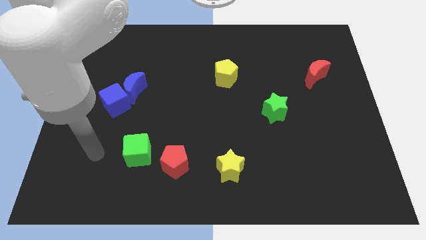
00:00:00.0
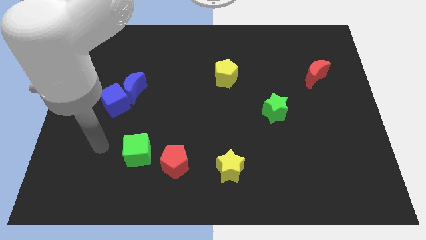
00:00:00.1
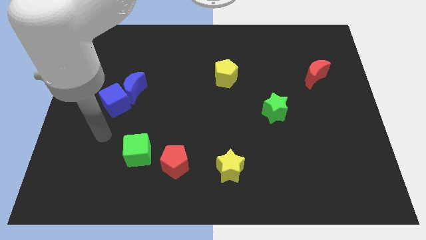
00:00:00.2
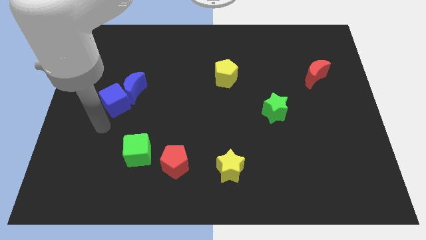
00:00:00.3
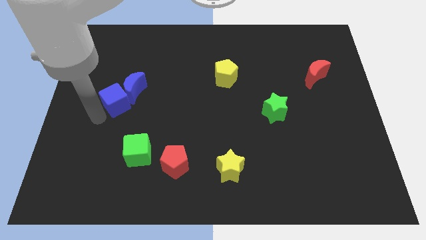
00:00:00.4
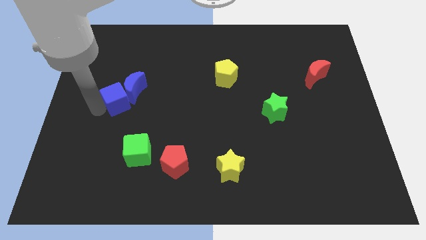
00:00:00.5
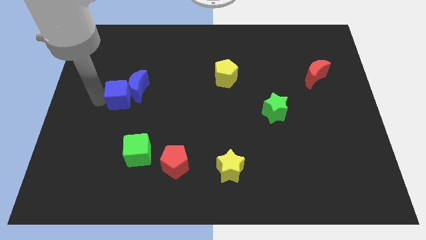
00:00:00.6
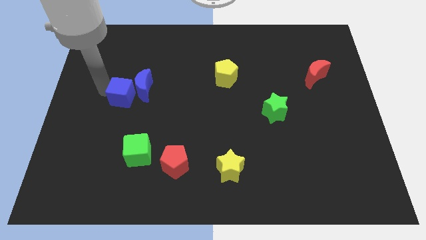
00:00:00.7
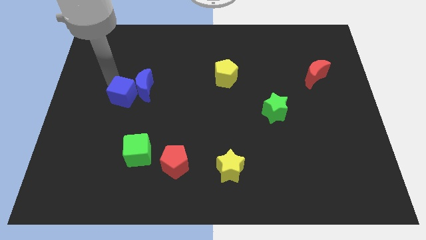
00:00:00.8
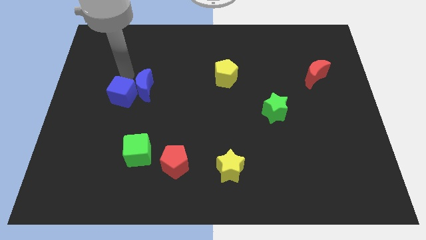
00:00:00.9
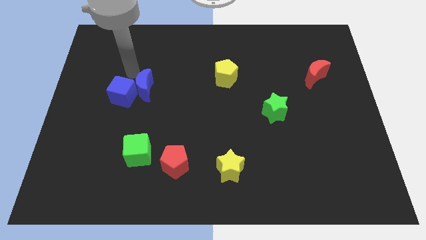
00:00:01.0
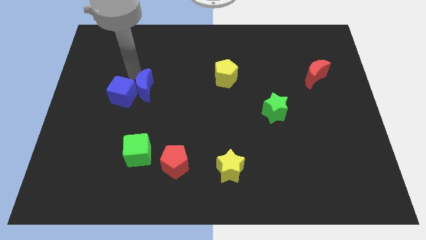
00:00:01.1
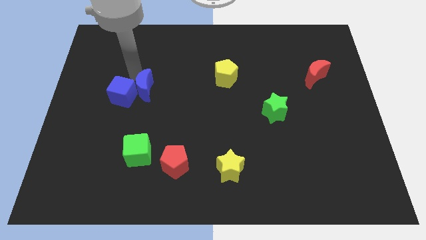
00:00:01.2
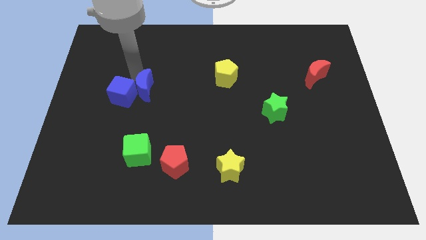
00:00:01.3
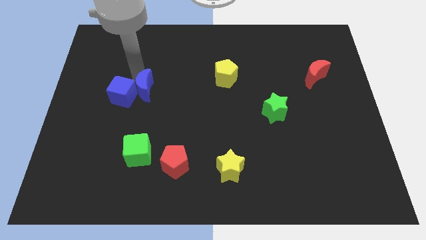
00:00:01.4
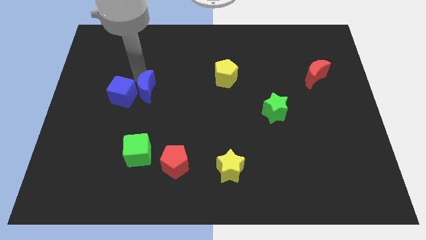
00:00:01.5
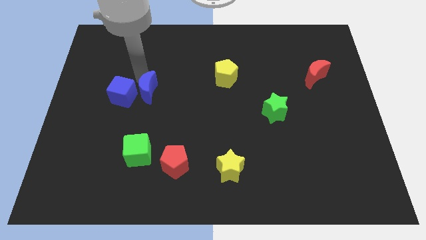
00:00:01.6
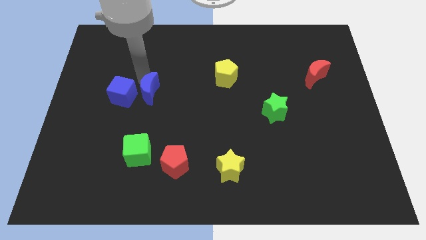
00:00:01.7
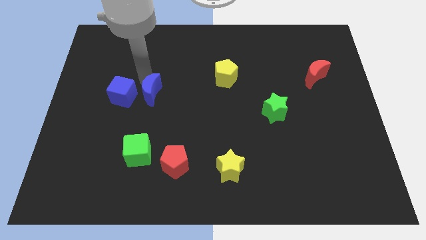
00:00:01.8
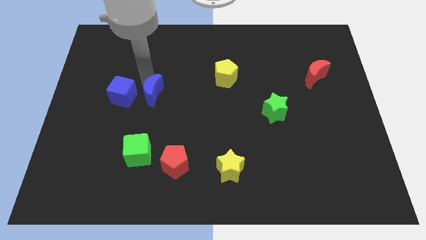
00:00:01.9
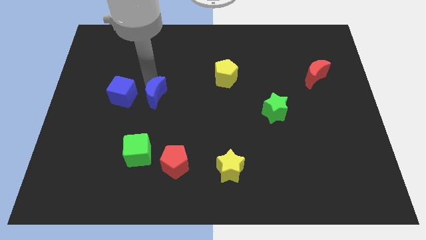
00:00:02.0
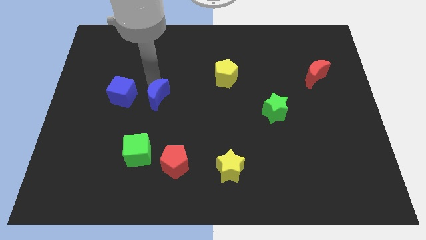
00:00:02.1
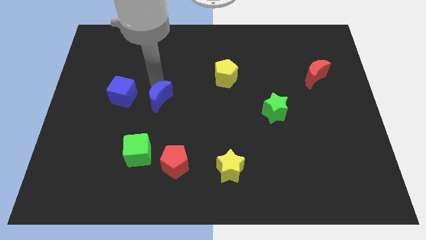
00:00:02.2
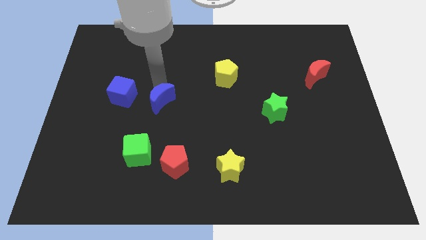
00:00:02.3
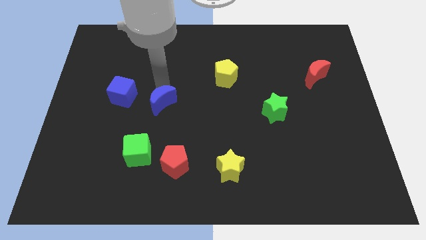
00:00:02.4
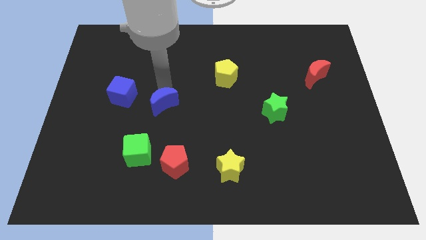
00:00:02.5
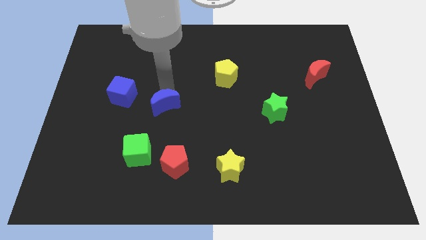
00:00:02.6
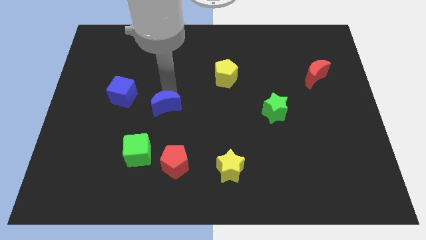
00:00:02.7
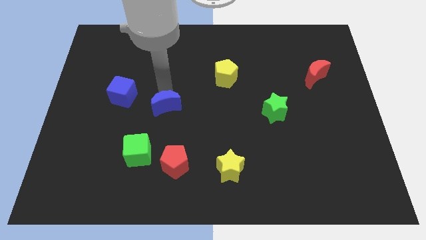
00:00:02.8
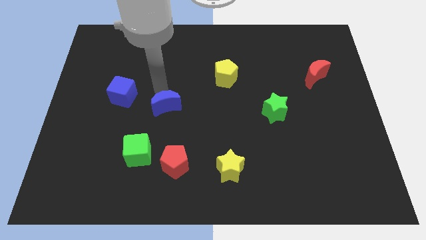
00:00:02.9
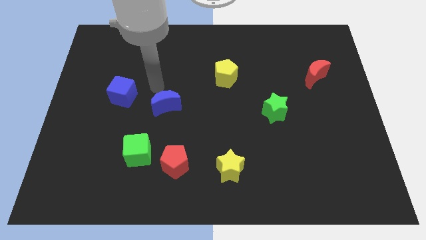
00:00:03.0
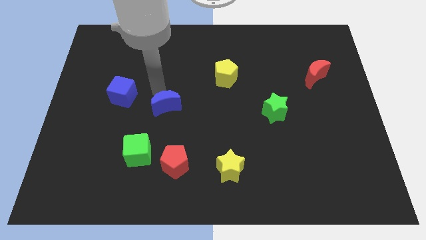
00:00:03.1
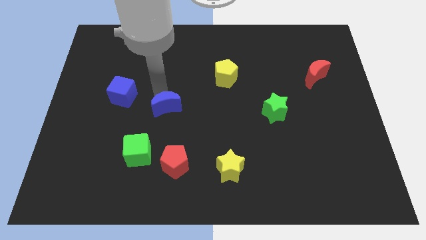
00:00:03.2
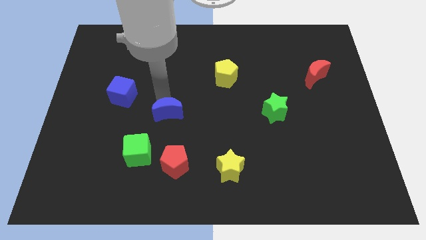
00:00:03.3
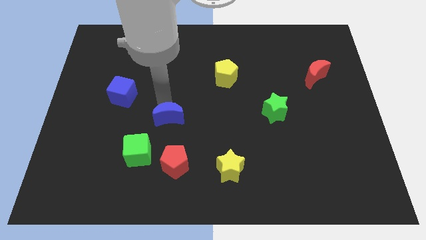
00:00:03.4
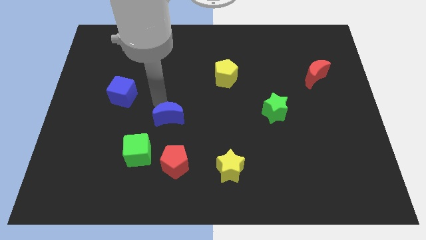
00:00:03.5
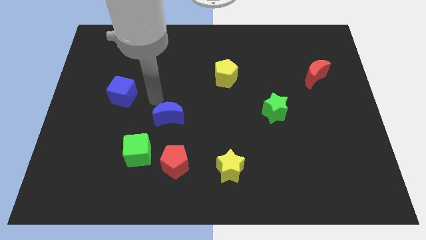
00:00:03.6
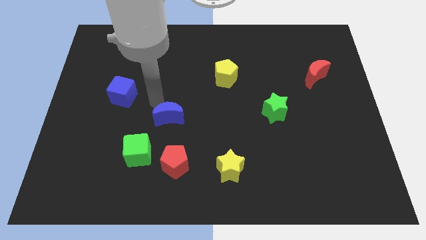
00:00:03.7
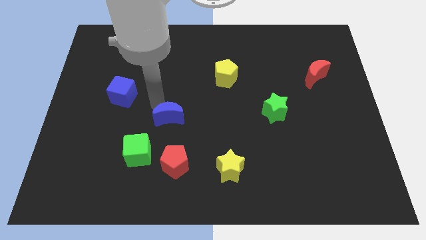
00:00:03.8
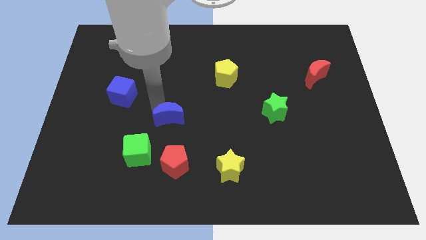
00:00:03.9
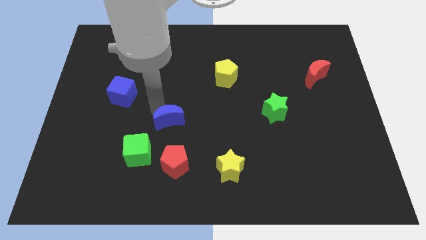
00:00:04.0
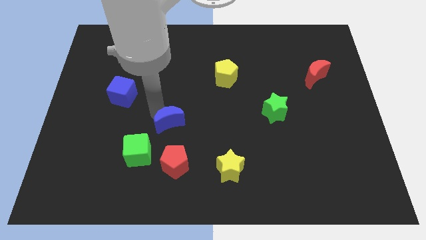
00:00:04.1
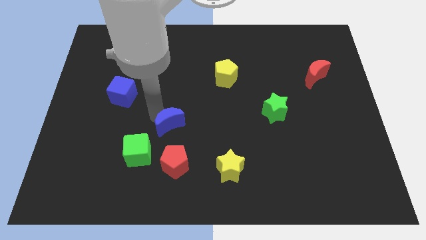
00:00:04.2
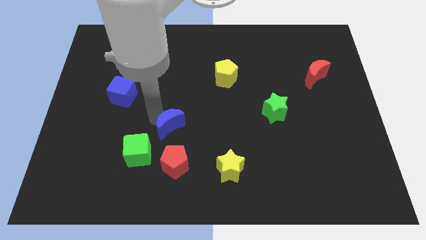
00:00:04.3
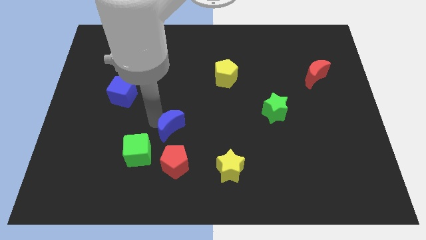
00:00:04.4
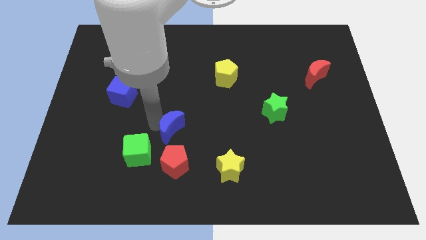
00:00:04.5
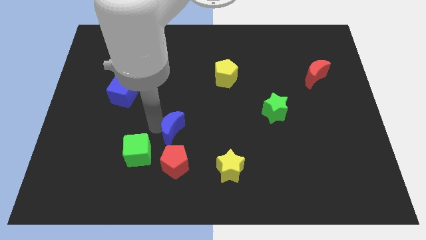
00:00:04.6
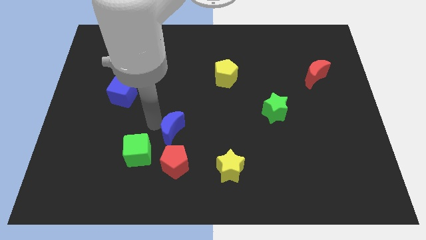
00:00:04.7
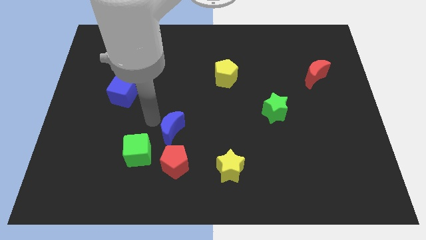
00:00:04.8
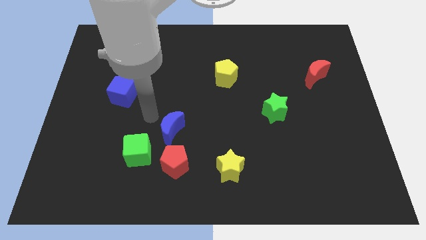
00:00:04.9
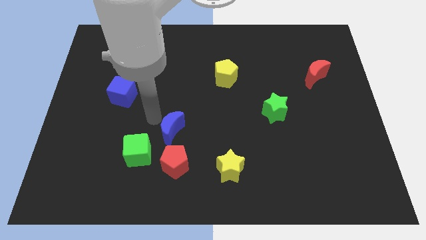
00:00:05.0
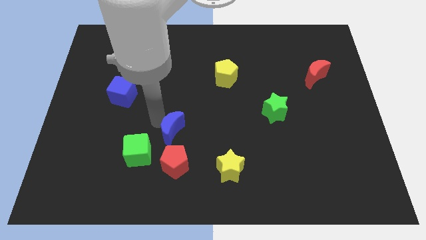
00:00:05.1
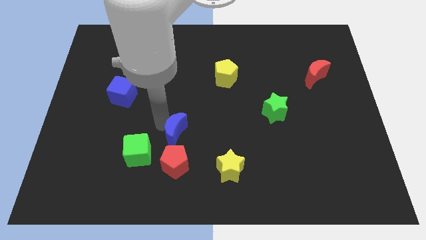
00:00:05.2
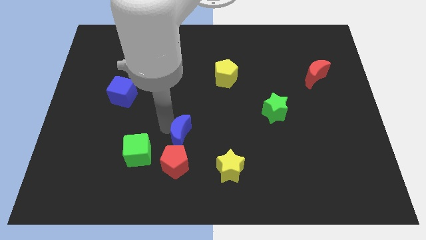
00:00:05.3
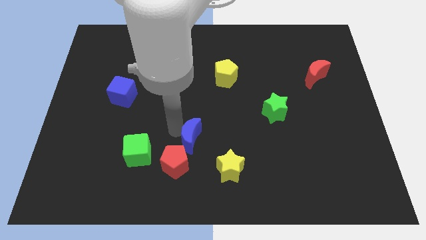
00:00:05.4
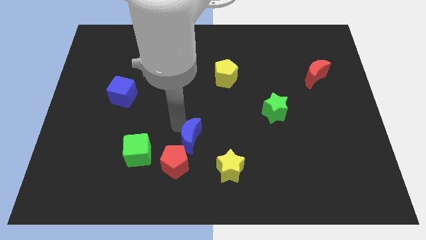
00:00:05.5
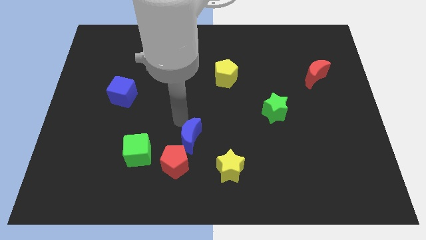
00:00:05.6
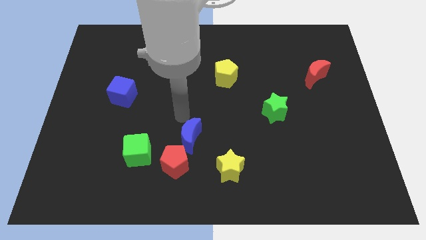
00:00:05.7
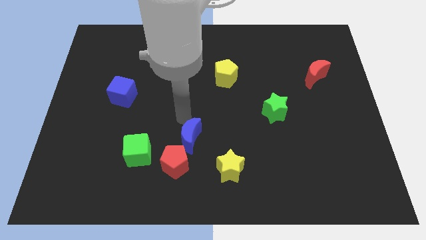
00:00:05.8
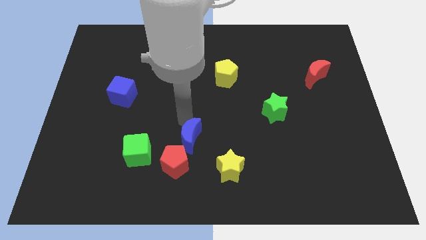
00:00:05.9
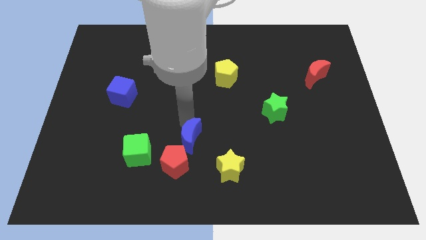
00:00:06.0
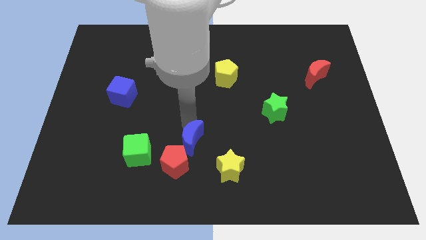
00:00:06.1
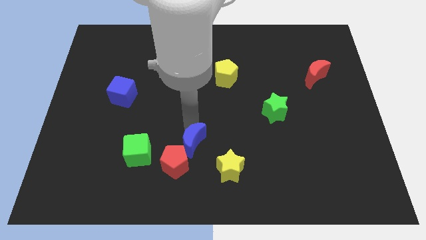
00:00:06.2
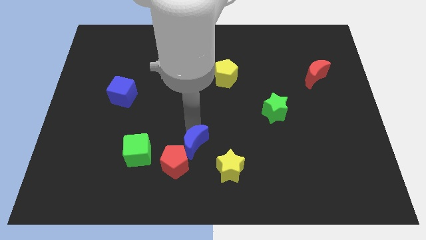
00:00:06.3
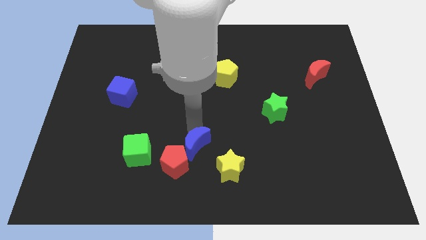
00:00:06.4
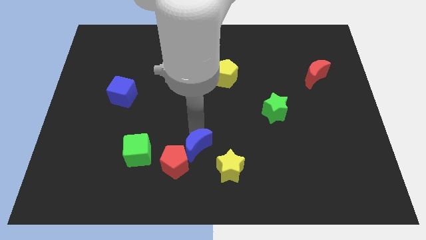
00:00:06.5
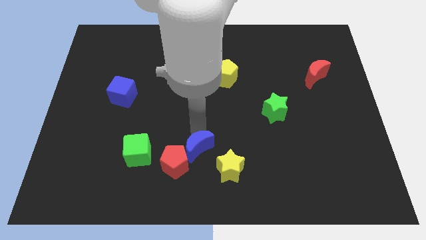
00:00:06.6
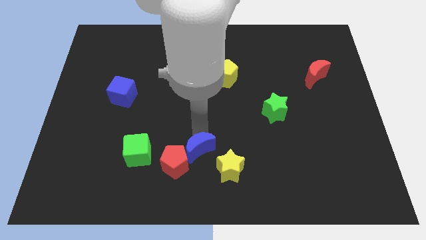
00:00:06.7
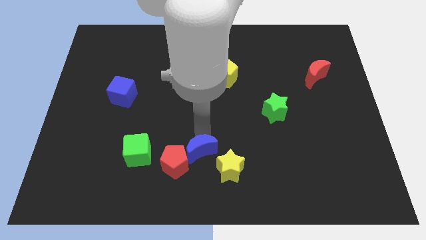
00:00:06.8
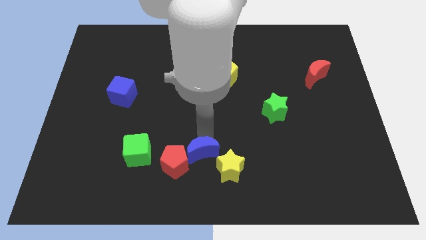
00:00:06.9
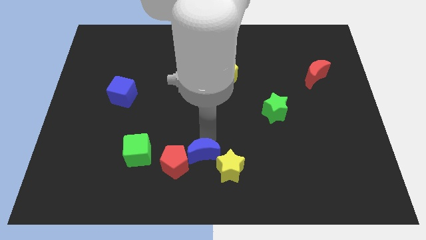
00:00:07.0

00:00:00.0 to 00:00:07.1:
move the blue moon to the bottom side
